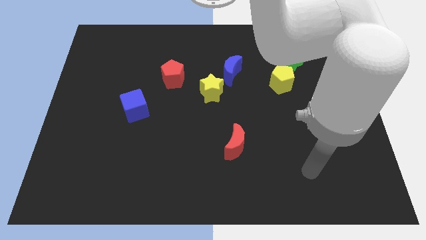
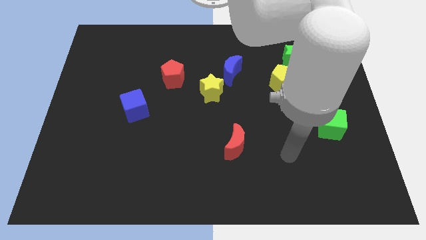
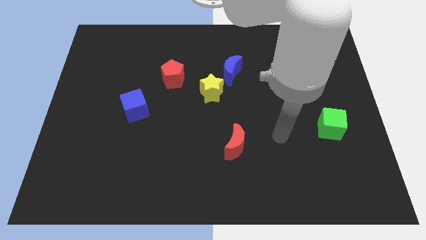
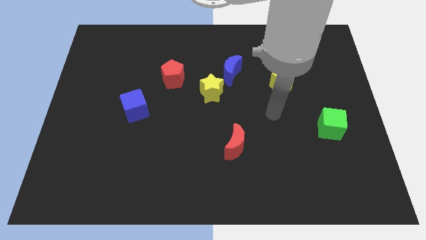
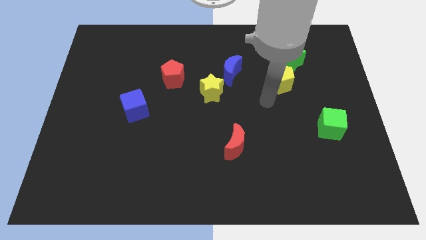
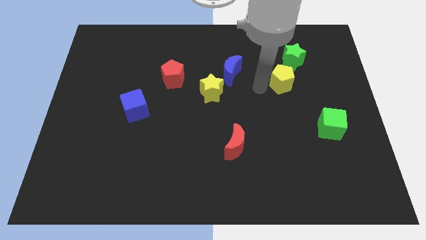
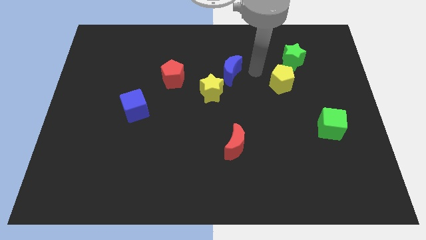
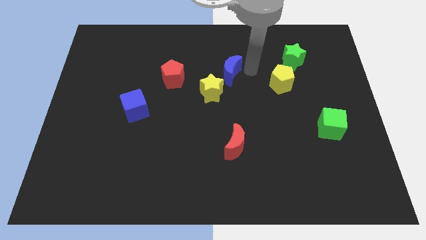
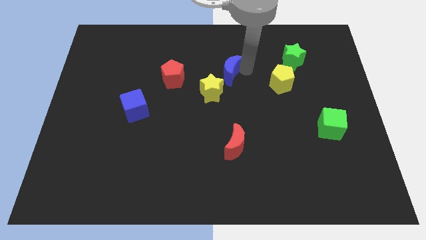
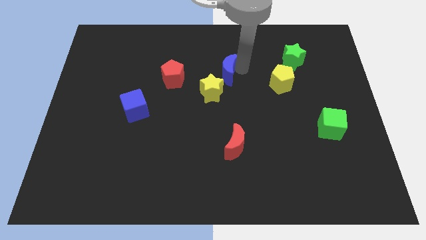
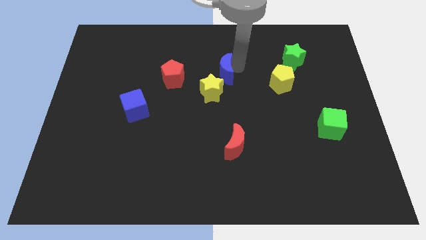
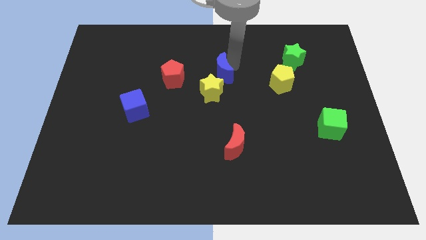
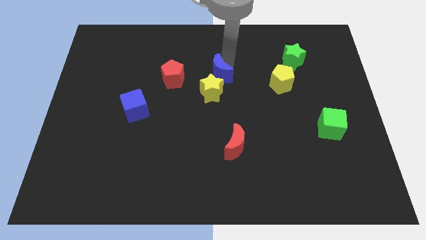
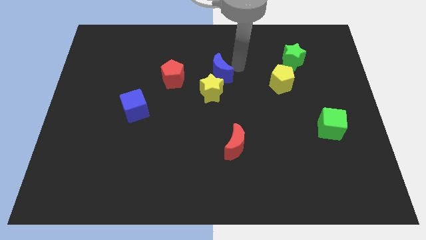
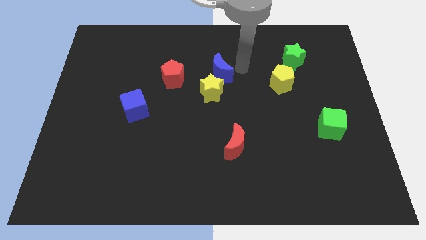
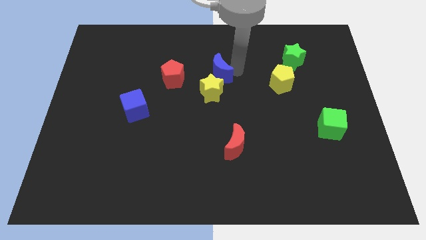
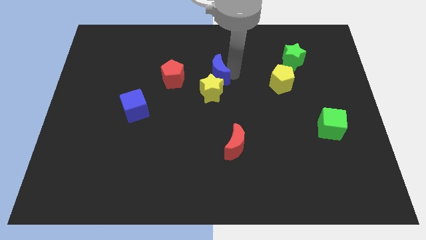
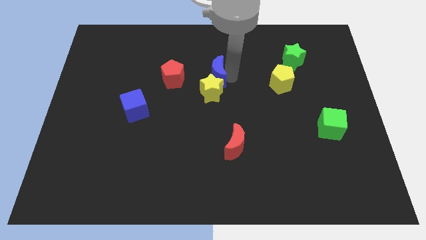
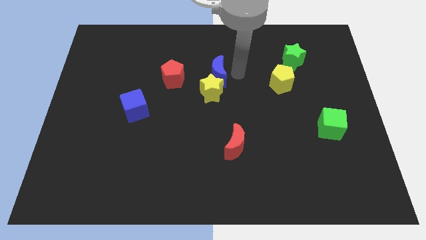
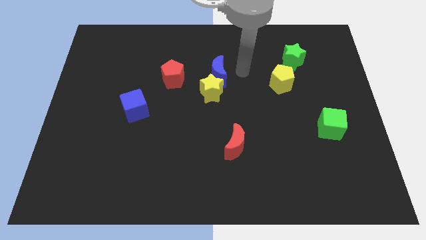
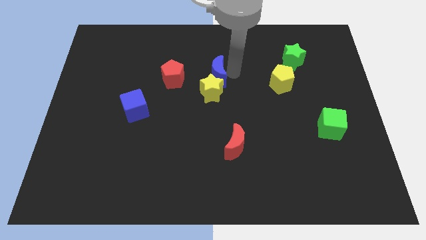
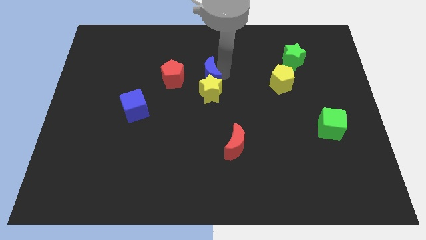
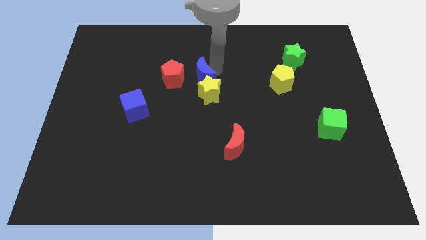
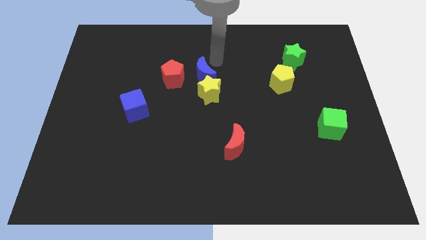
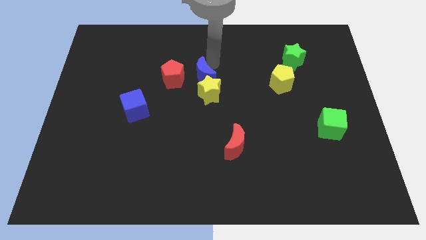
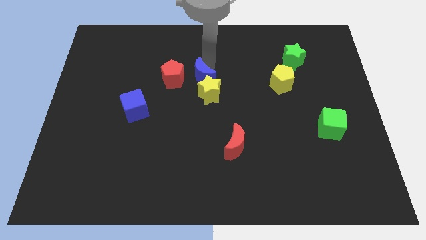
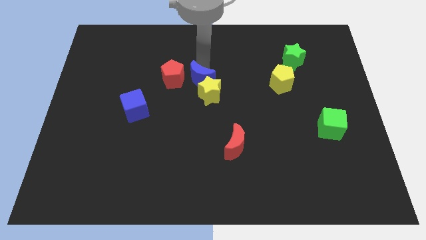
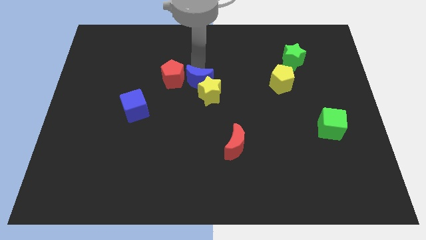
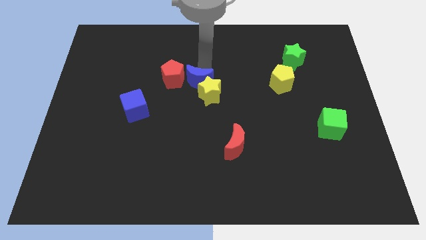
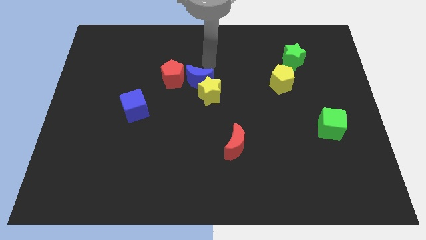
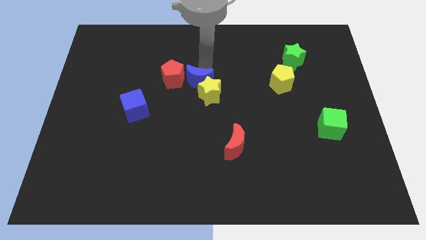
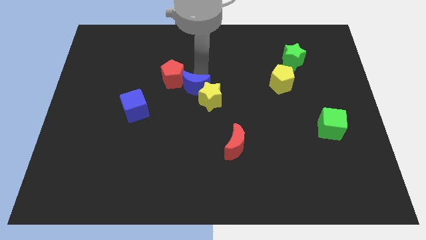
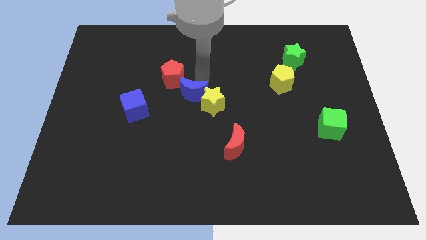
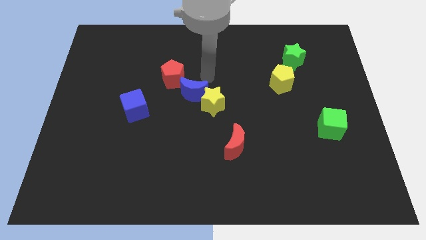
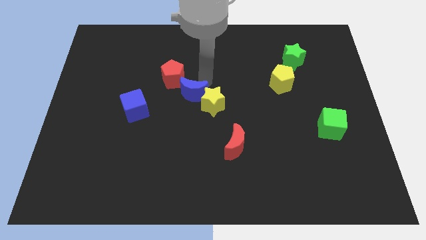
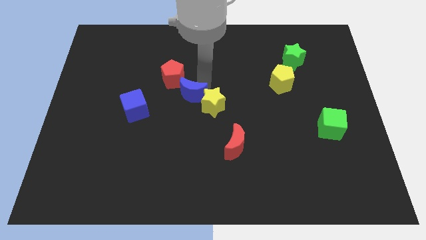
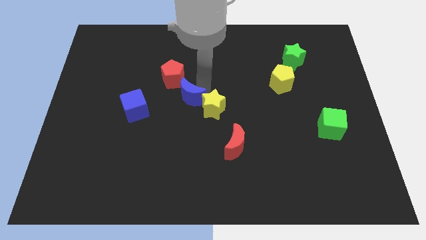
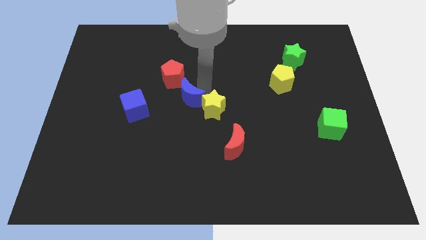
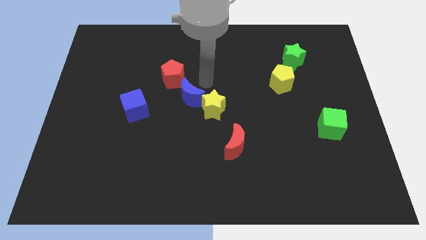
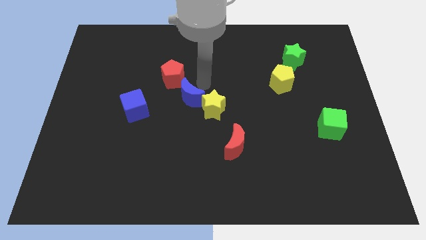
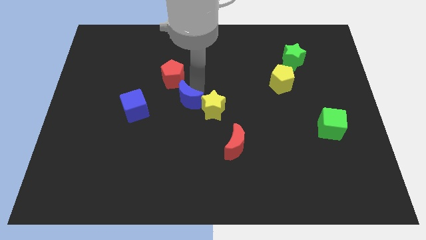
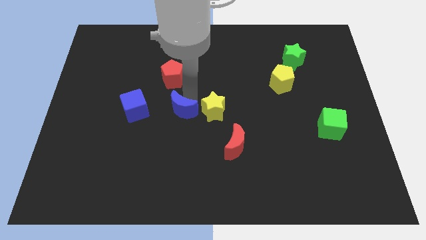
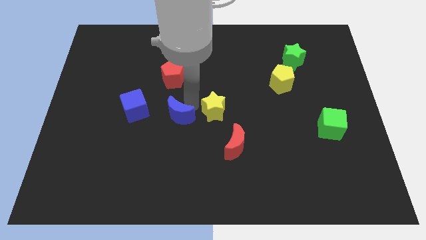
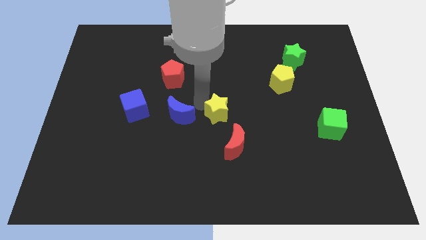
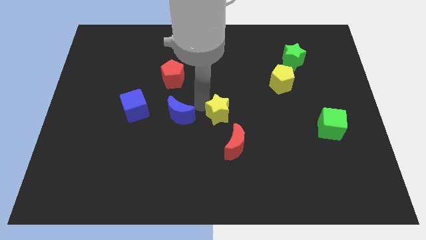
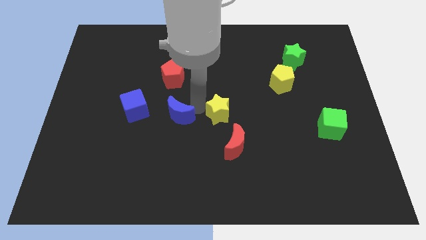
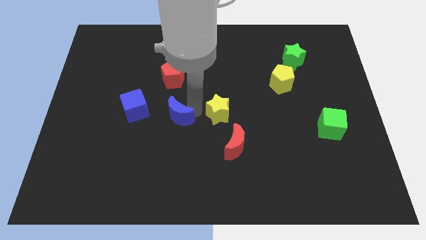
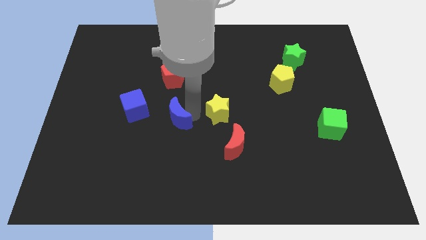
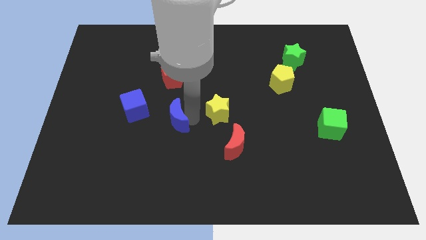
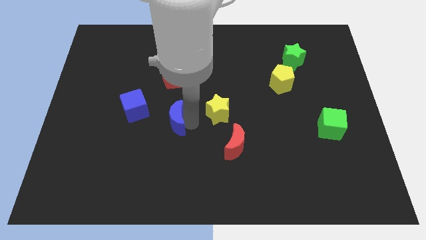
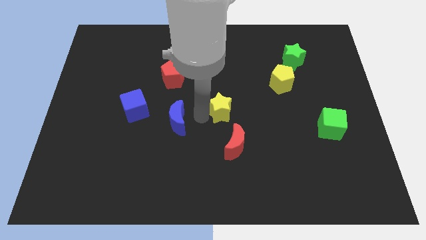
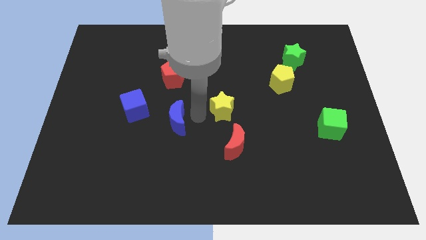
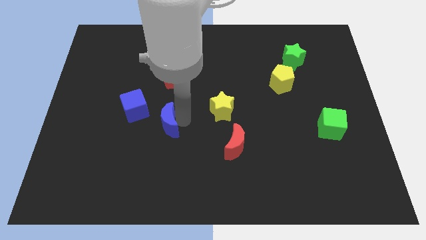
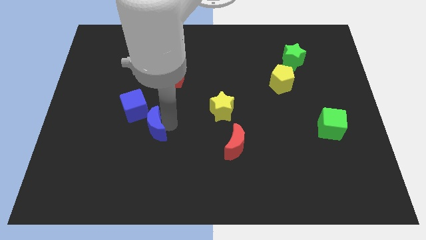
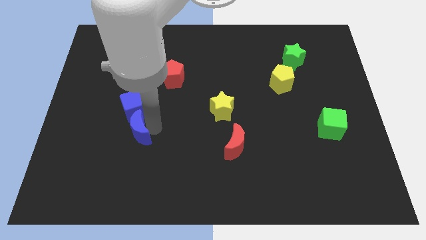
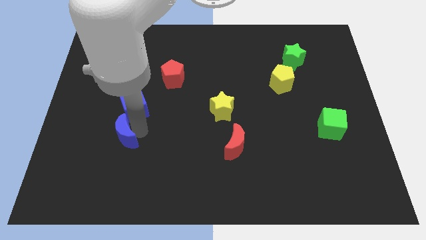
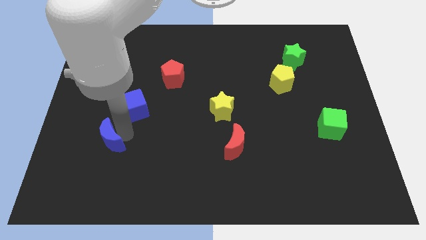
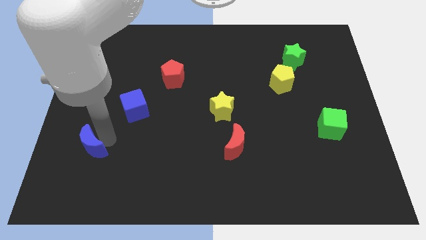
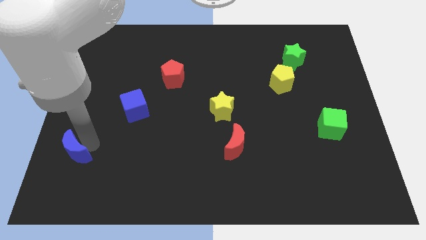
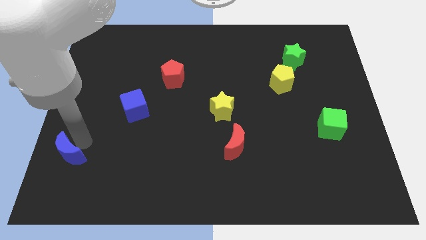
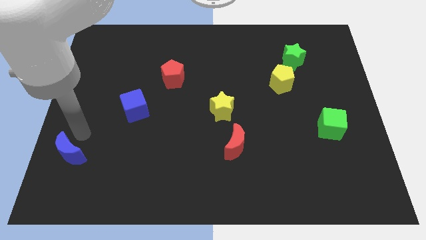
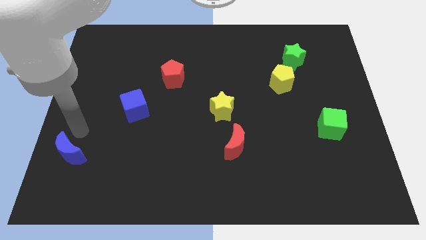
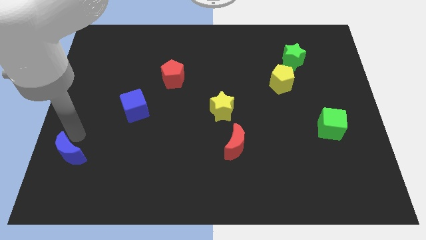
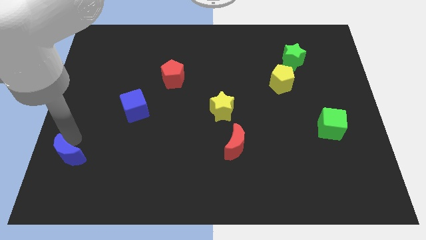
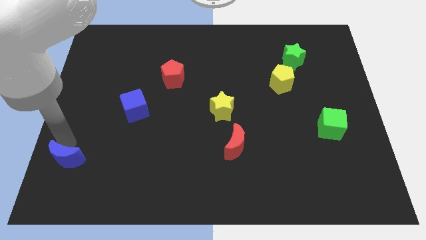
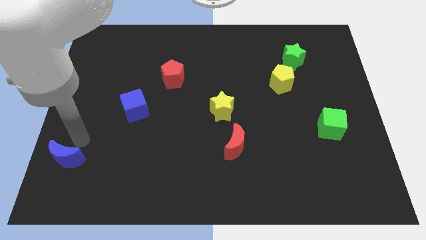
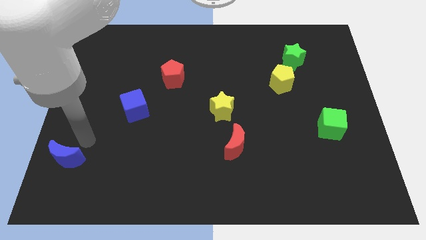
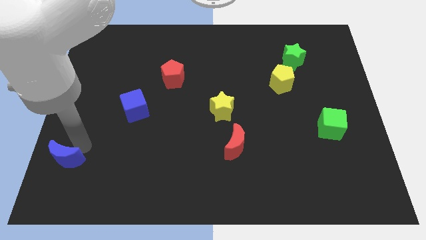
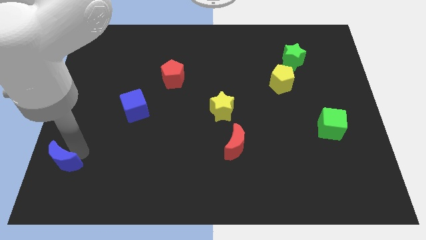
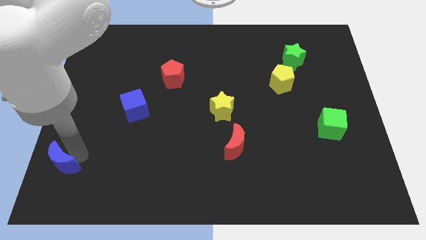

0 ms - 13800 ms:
move the blue moon to the bottom left corner

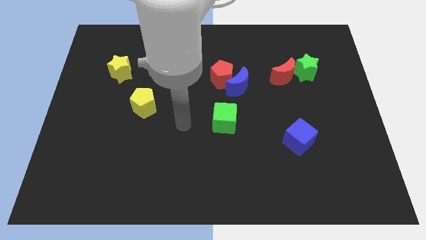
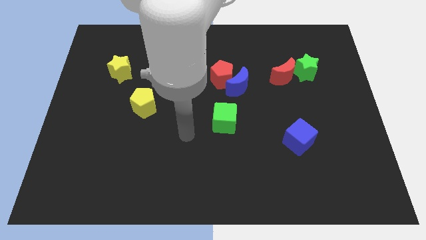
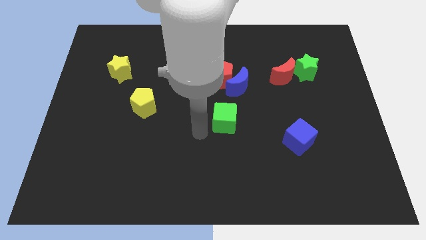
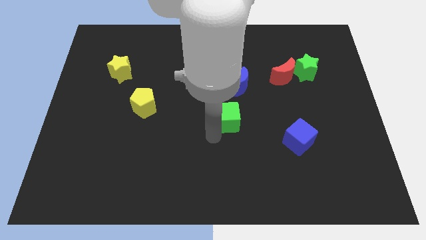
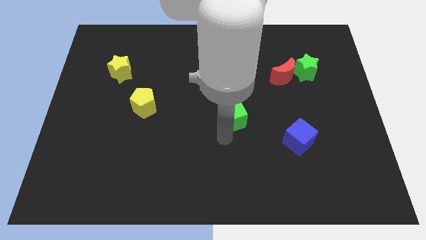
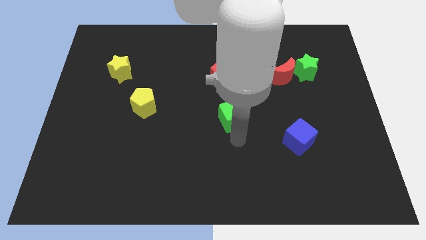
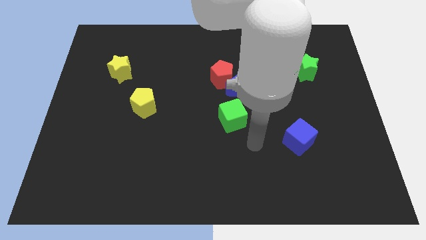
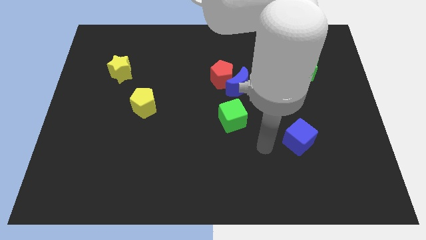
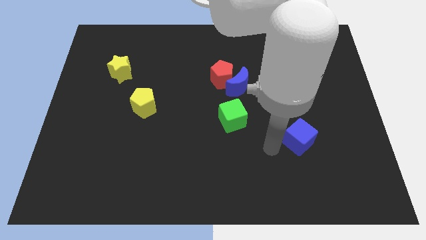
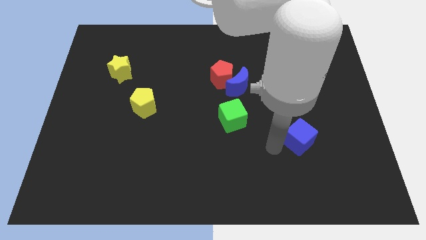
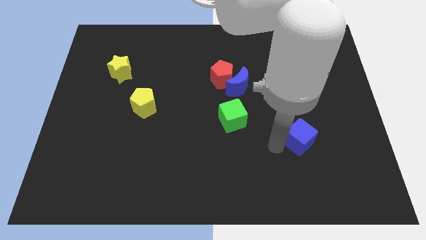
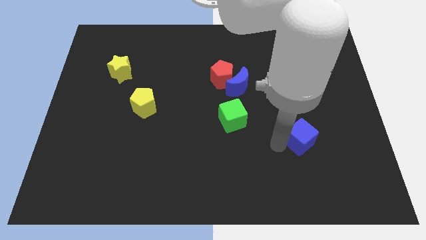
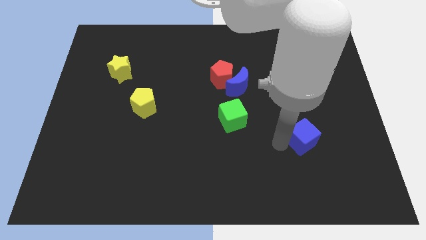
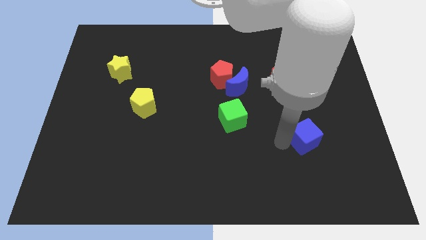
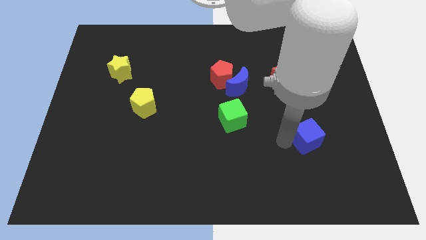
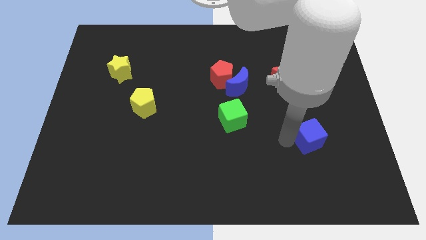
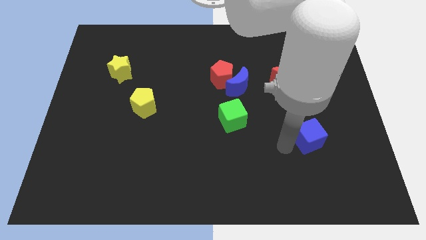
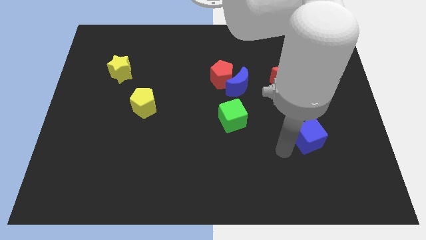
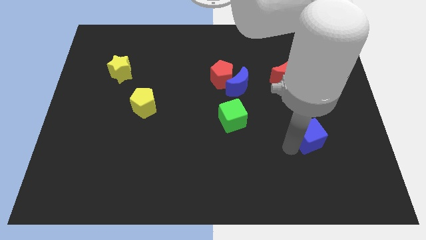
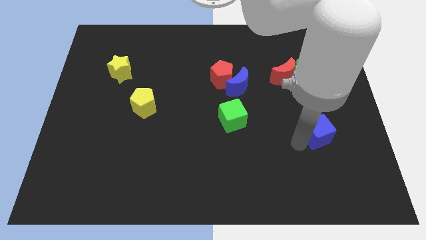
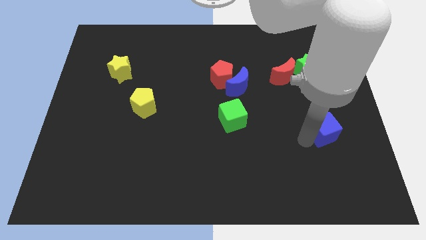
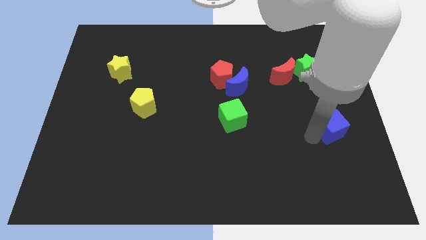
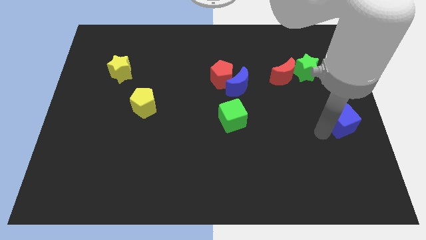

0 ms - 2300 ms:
push the blue cube to the right side
